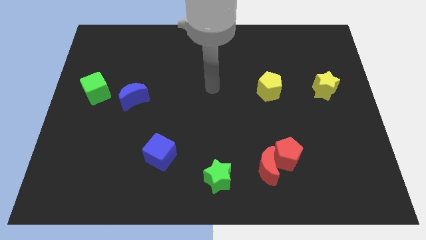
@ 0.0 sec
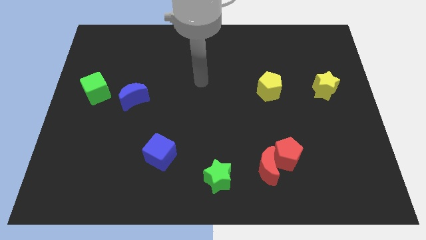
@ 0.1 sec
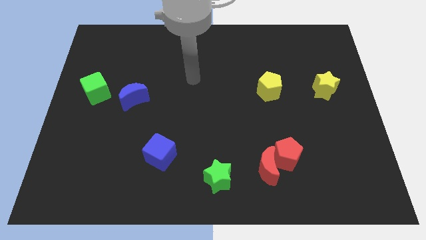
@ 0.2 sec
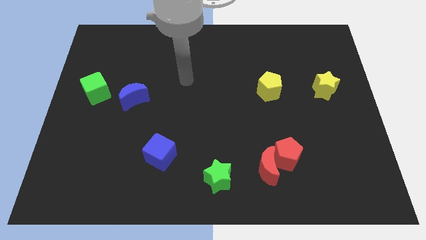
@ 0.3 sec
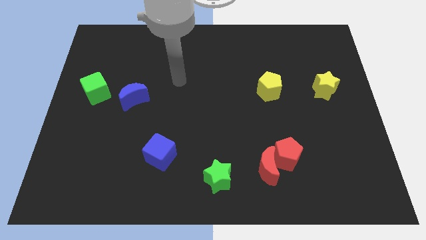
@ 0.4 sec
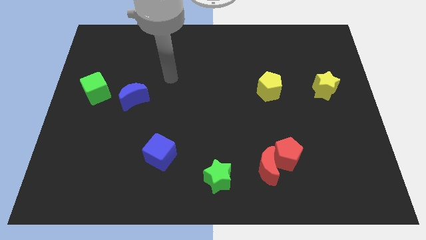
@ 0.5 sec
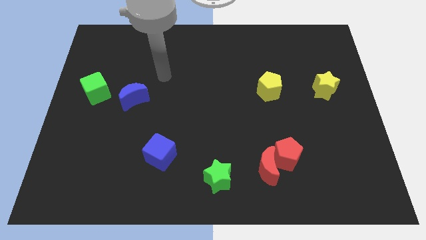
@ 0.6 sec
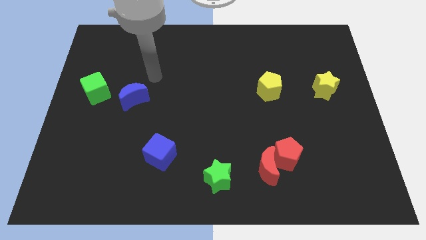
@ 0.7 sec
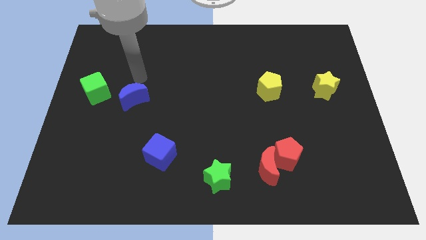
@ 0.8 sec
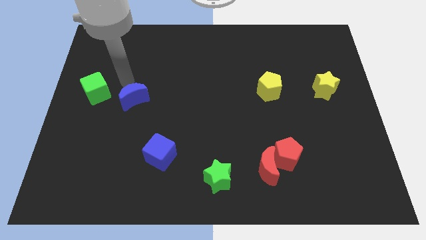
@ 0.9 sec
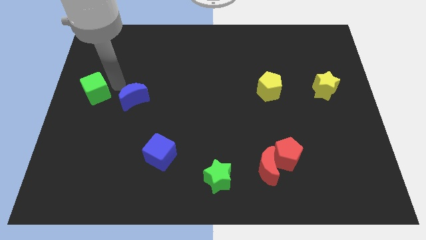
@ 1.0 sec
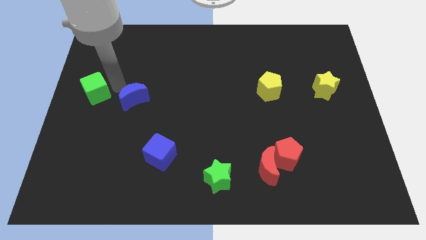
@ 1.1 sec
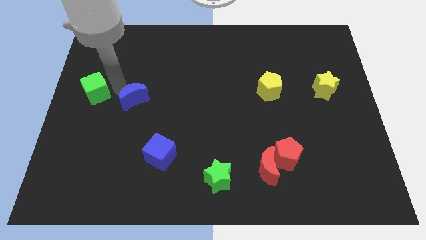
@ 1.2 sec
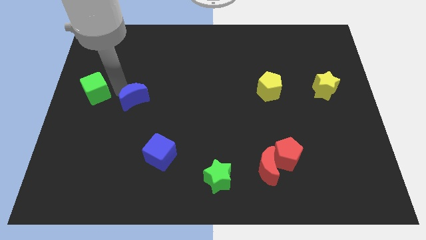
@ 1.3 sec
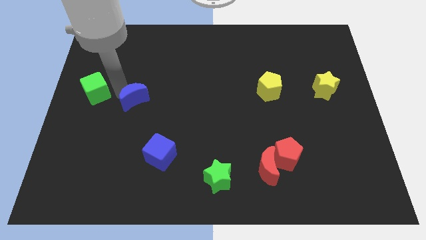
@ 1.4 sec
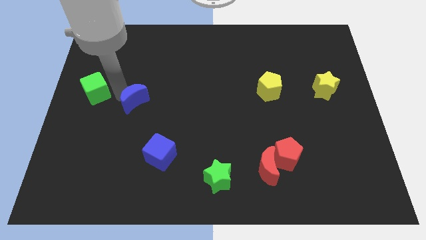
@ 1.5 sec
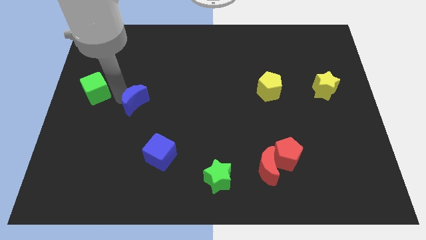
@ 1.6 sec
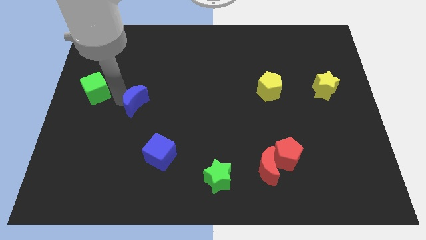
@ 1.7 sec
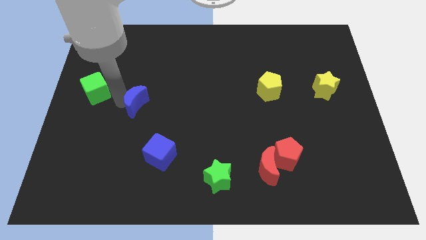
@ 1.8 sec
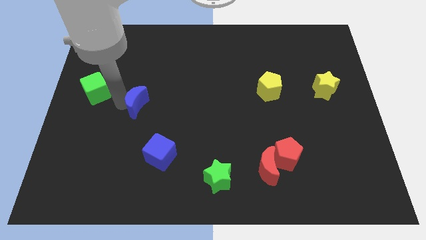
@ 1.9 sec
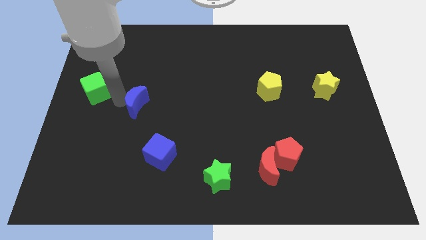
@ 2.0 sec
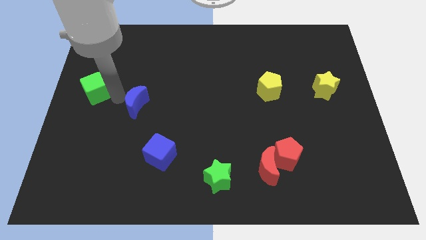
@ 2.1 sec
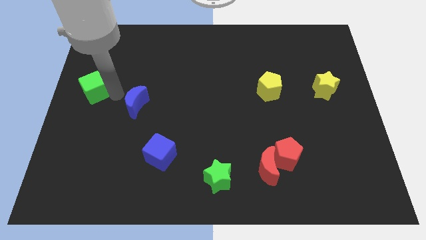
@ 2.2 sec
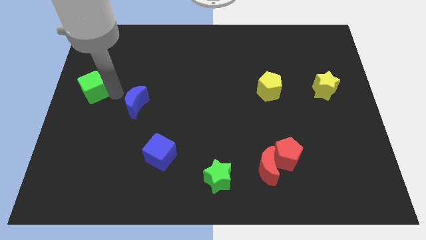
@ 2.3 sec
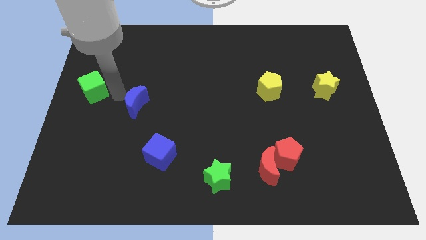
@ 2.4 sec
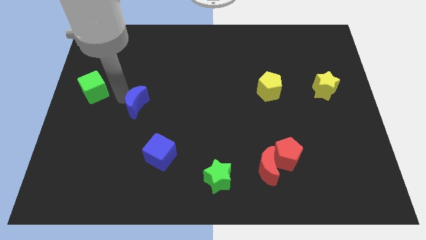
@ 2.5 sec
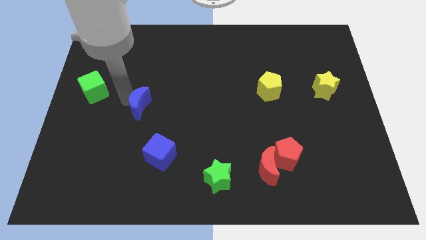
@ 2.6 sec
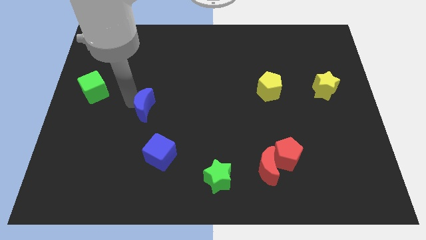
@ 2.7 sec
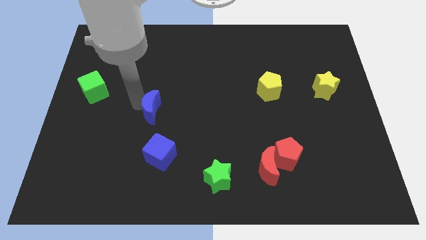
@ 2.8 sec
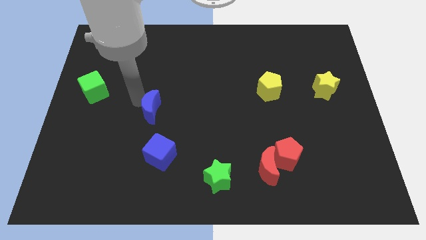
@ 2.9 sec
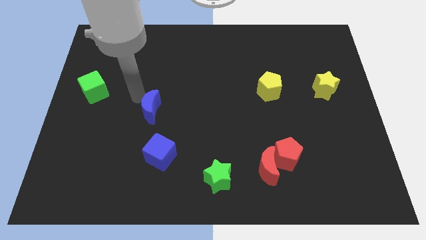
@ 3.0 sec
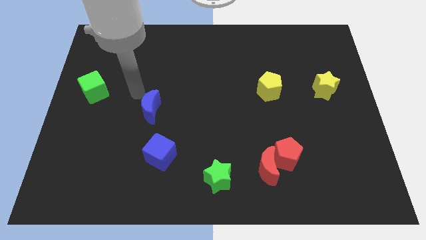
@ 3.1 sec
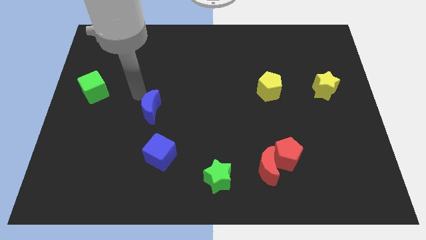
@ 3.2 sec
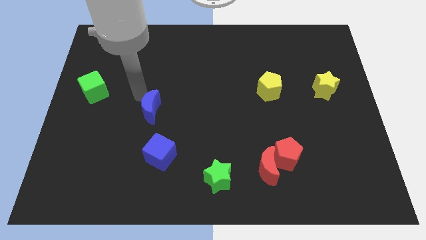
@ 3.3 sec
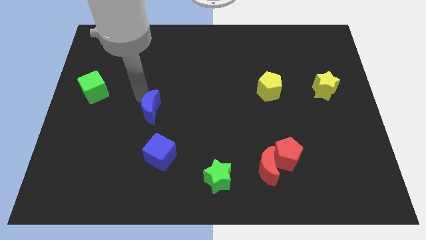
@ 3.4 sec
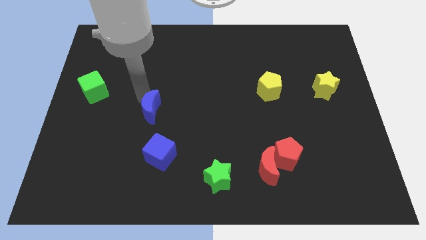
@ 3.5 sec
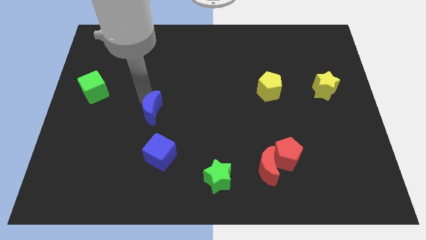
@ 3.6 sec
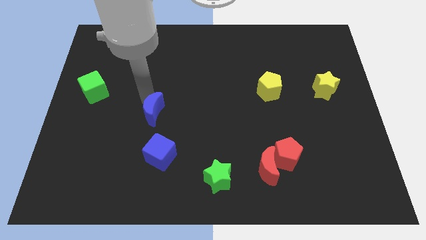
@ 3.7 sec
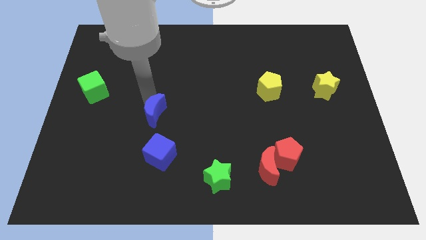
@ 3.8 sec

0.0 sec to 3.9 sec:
push the blue moon somewhat diagonally downwards and to the right

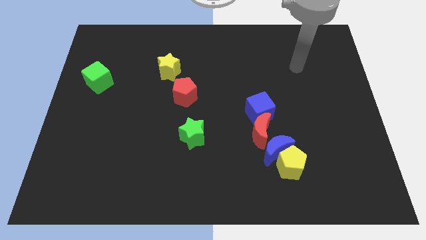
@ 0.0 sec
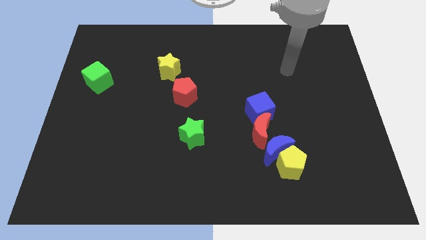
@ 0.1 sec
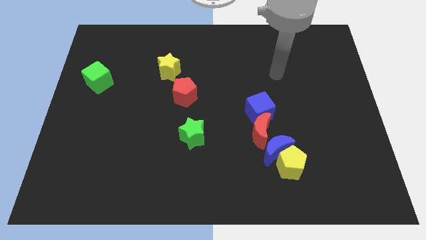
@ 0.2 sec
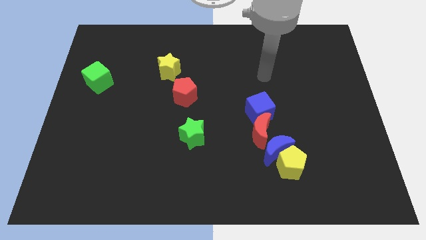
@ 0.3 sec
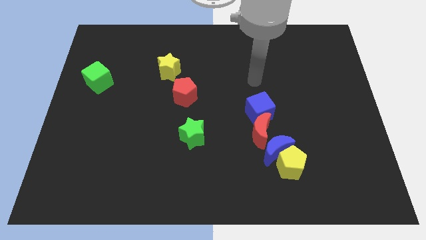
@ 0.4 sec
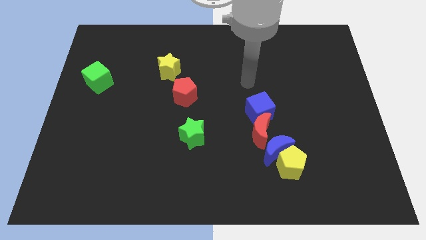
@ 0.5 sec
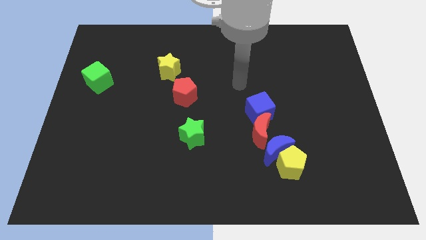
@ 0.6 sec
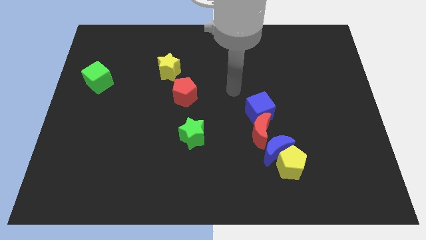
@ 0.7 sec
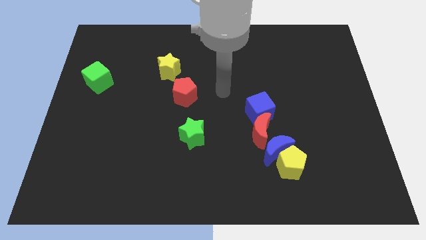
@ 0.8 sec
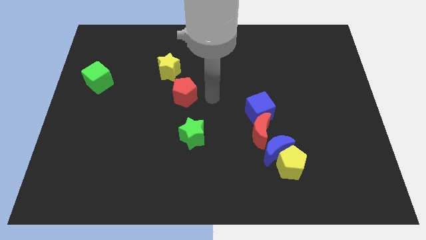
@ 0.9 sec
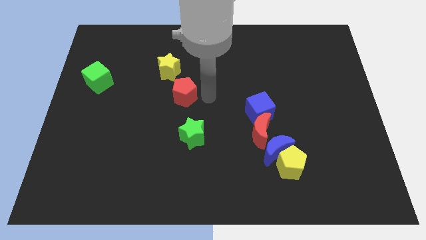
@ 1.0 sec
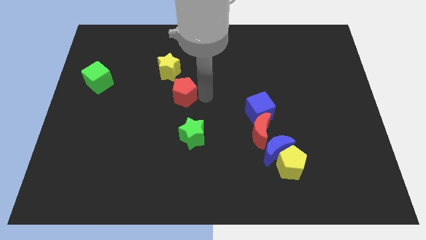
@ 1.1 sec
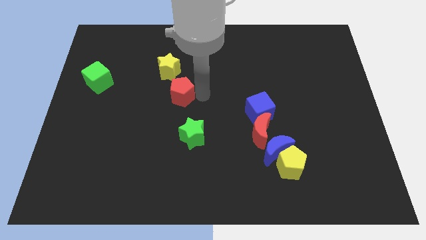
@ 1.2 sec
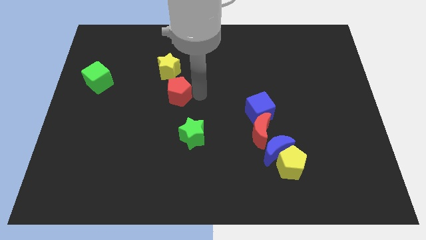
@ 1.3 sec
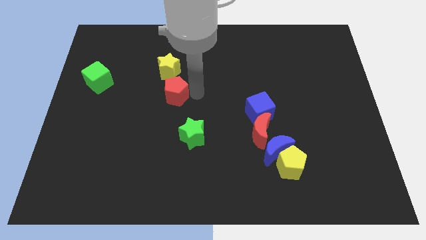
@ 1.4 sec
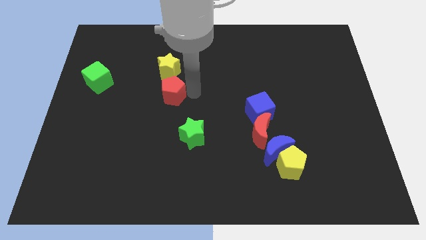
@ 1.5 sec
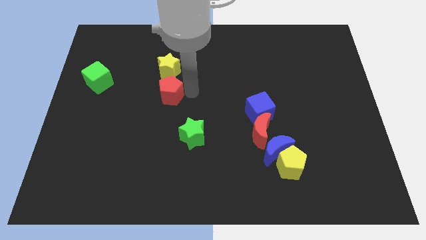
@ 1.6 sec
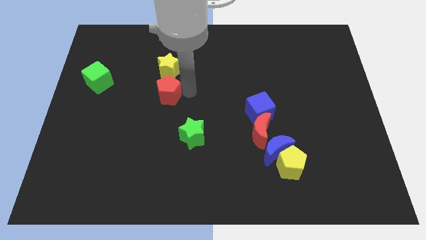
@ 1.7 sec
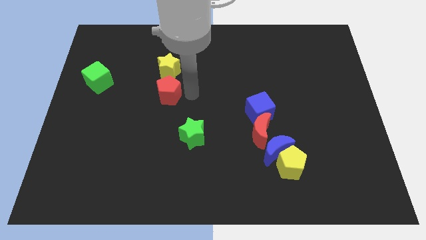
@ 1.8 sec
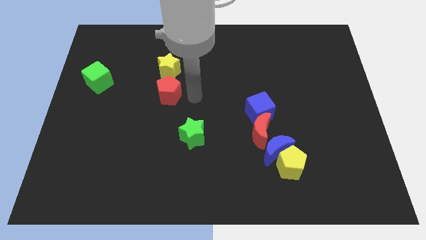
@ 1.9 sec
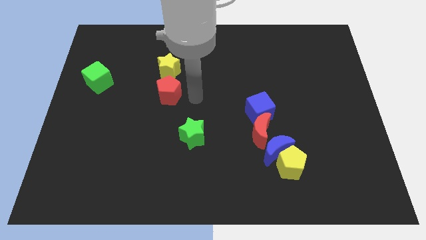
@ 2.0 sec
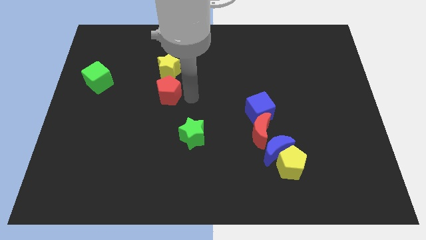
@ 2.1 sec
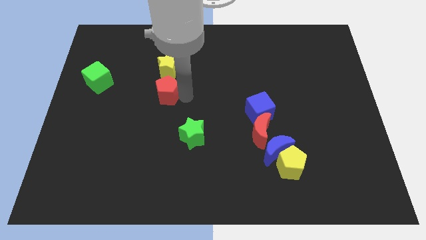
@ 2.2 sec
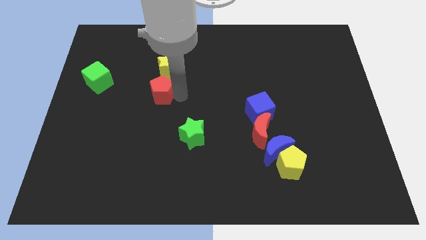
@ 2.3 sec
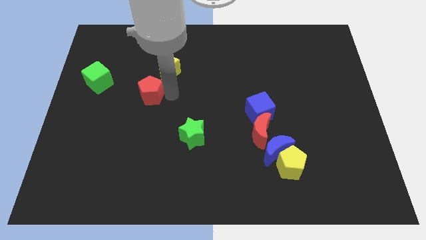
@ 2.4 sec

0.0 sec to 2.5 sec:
slide the red pentagon left a little

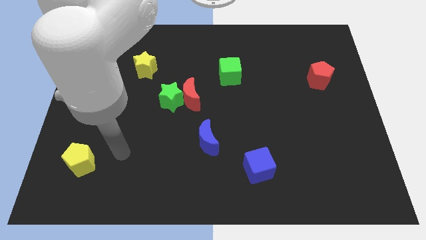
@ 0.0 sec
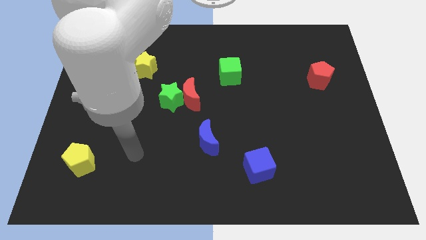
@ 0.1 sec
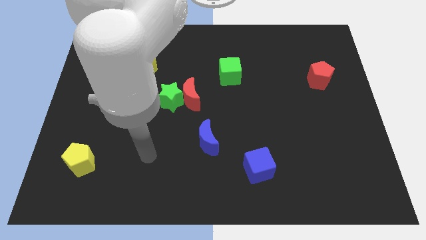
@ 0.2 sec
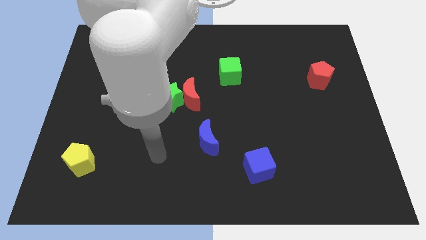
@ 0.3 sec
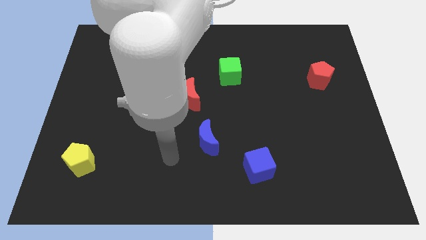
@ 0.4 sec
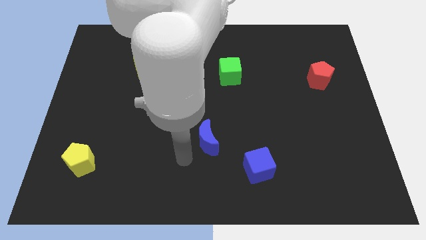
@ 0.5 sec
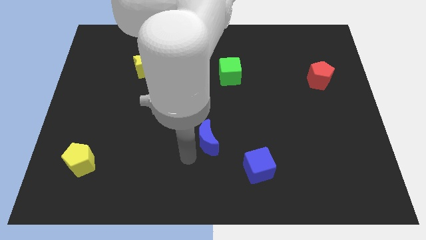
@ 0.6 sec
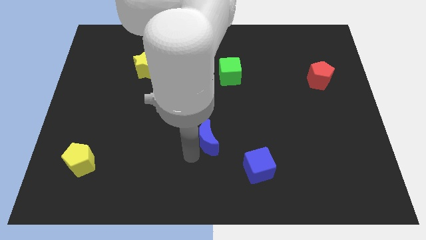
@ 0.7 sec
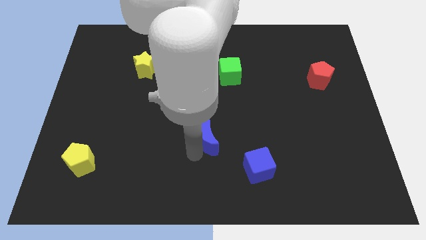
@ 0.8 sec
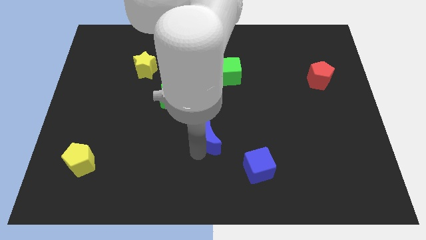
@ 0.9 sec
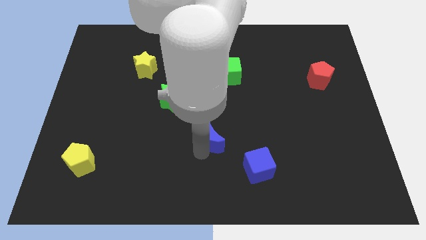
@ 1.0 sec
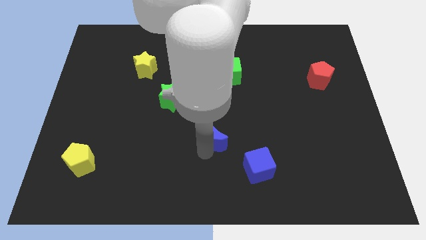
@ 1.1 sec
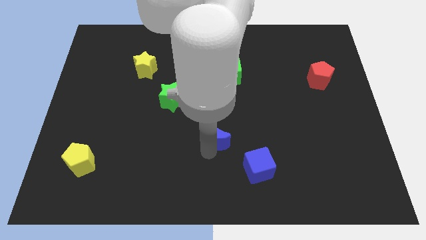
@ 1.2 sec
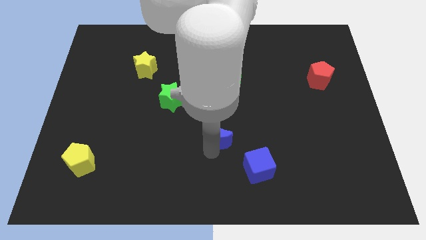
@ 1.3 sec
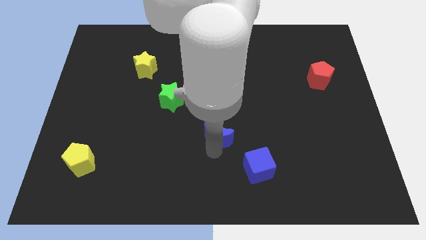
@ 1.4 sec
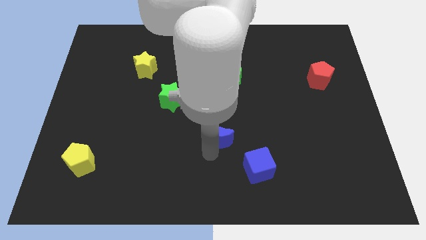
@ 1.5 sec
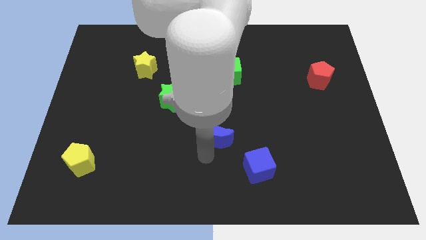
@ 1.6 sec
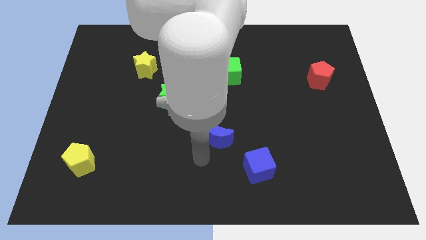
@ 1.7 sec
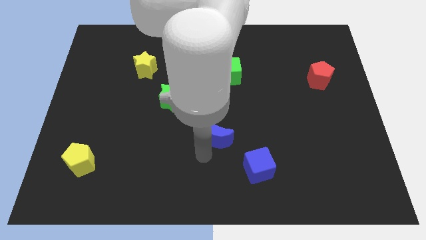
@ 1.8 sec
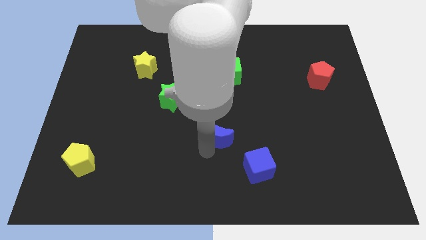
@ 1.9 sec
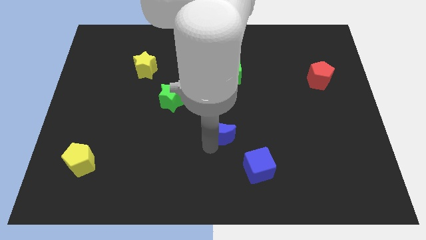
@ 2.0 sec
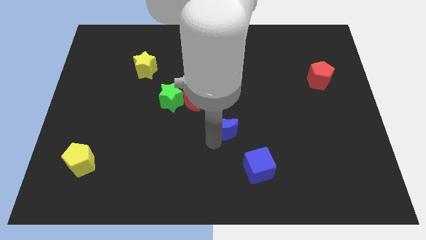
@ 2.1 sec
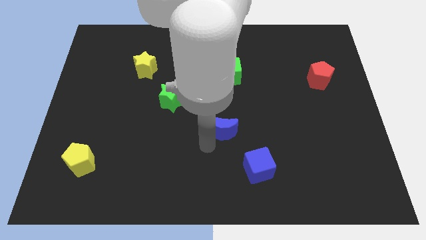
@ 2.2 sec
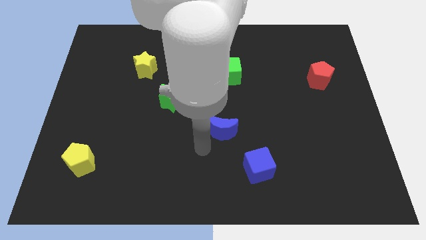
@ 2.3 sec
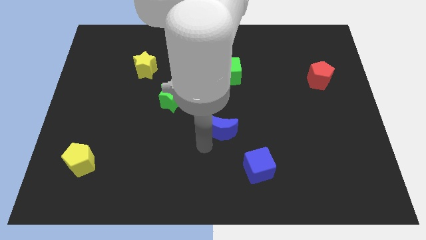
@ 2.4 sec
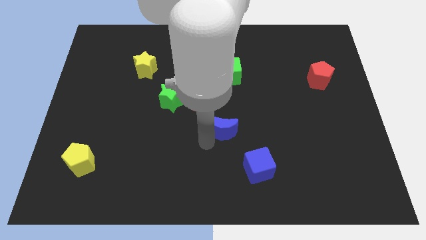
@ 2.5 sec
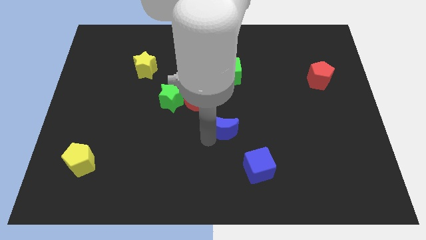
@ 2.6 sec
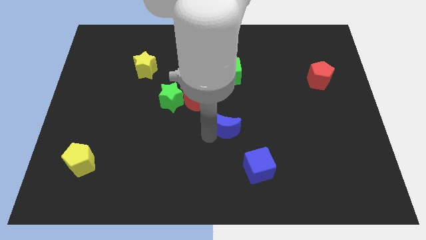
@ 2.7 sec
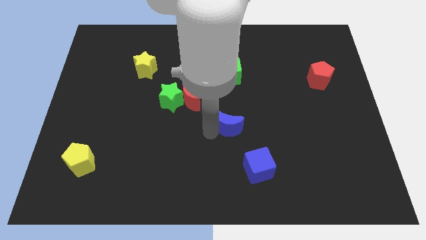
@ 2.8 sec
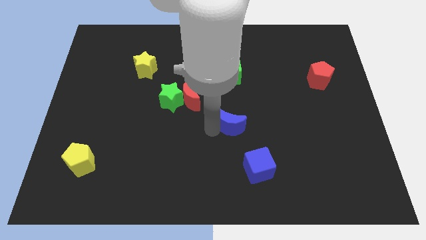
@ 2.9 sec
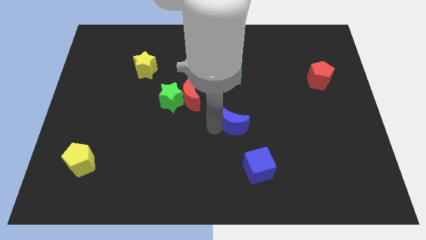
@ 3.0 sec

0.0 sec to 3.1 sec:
slightly slide the blue moon up and right diagonally
